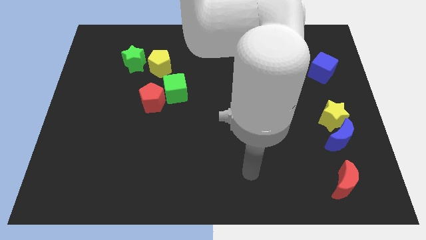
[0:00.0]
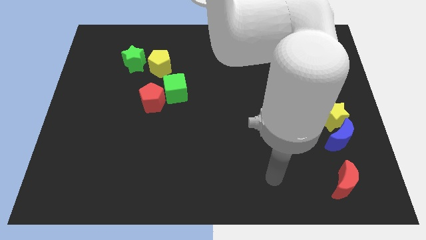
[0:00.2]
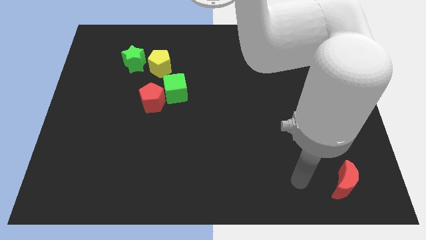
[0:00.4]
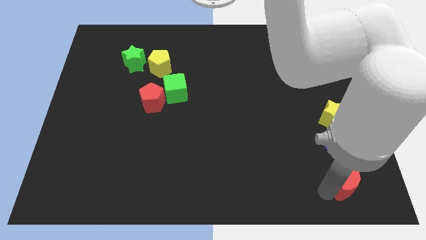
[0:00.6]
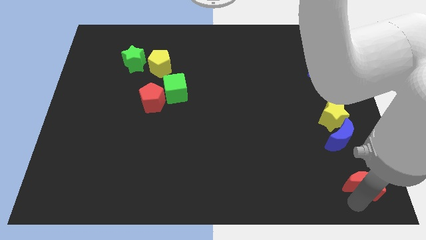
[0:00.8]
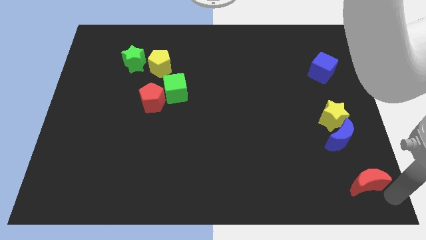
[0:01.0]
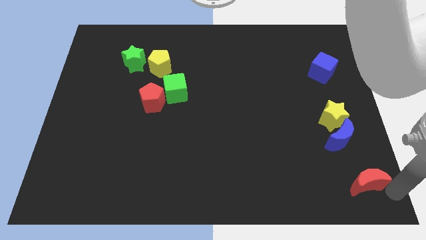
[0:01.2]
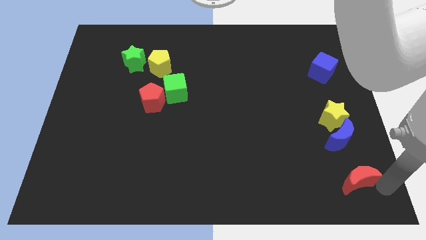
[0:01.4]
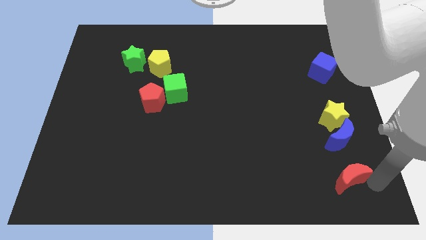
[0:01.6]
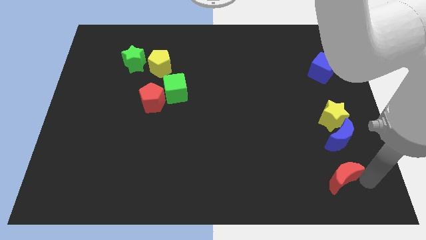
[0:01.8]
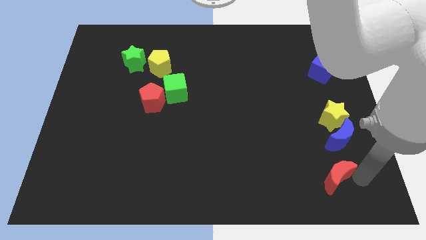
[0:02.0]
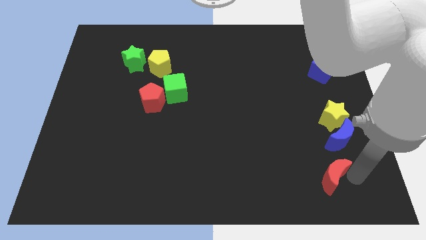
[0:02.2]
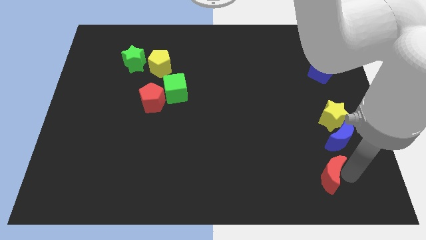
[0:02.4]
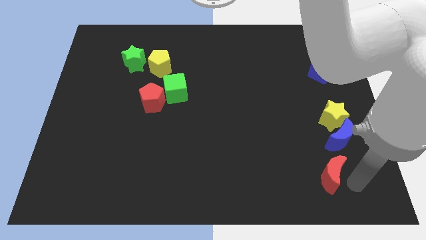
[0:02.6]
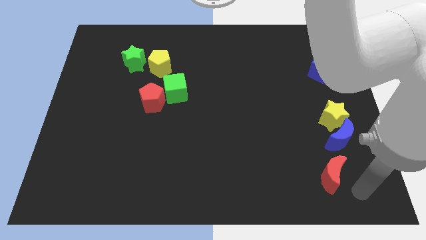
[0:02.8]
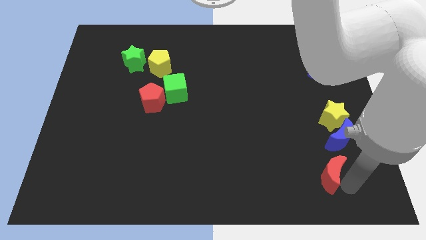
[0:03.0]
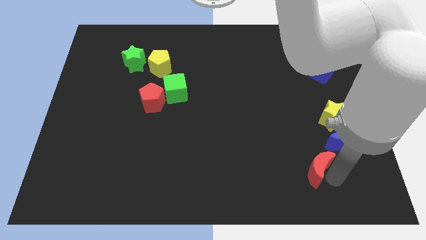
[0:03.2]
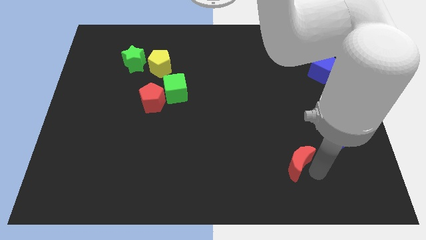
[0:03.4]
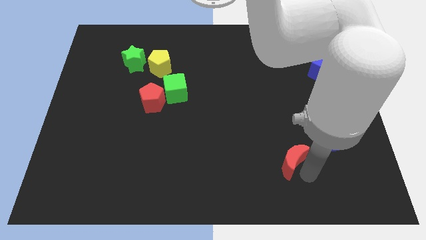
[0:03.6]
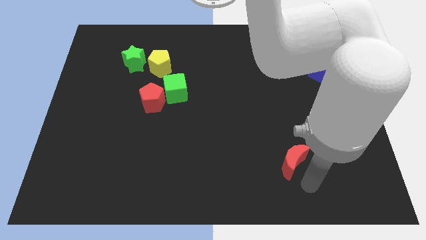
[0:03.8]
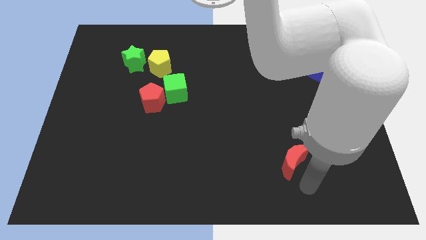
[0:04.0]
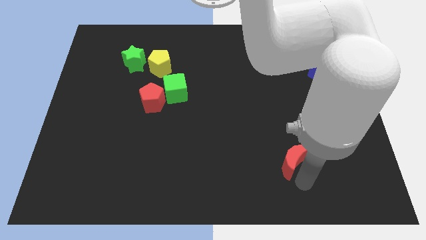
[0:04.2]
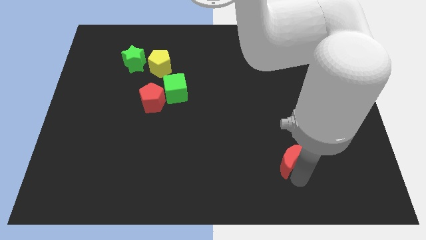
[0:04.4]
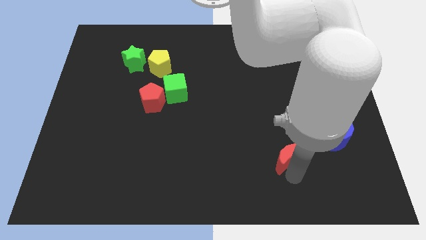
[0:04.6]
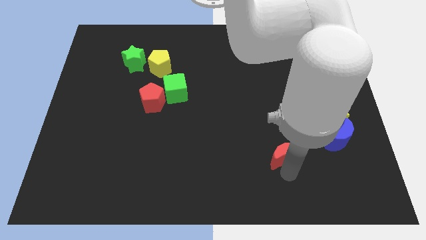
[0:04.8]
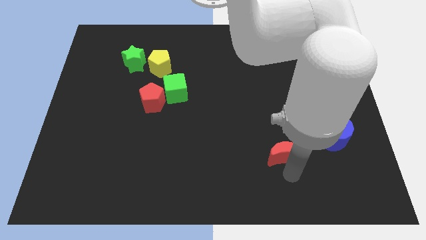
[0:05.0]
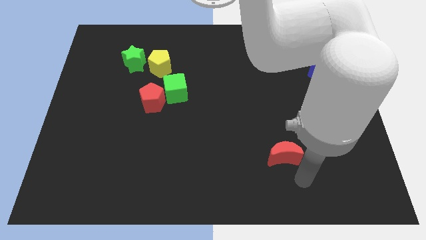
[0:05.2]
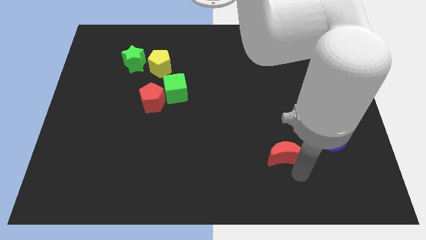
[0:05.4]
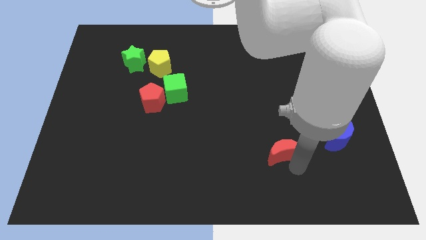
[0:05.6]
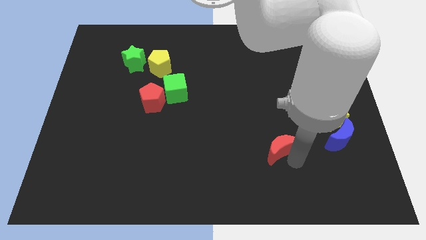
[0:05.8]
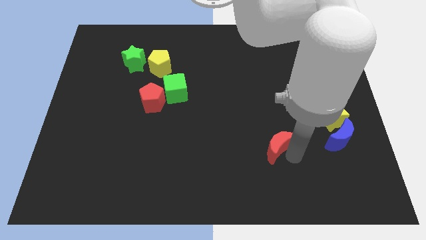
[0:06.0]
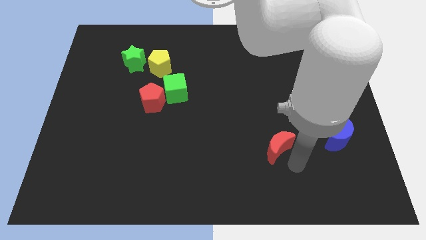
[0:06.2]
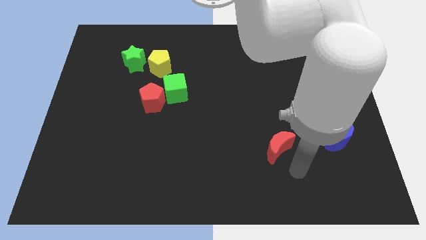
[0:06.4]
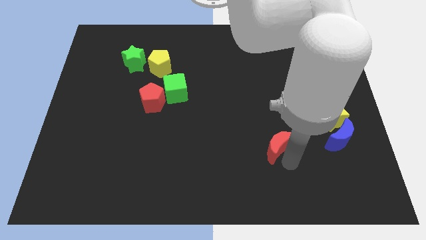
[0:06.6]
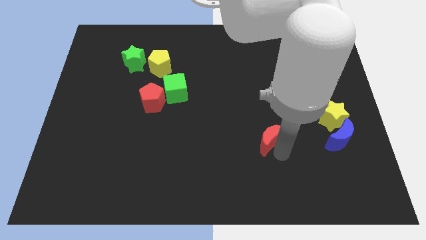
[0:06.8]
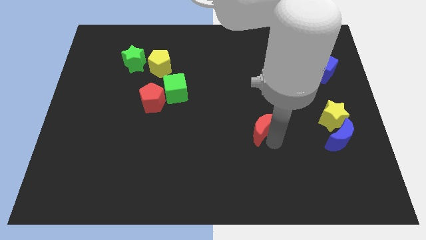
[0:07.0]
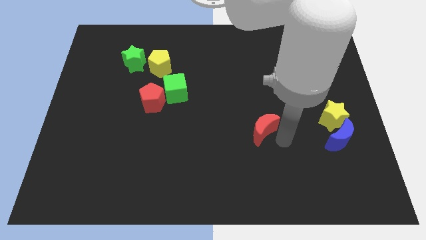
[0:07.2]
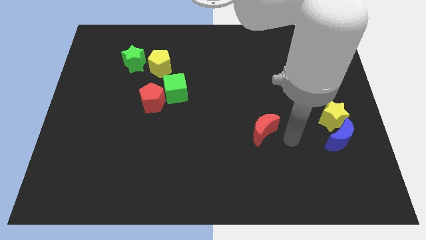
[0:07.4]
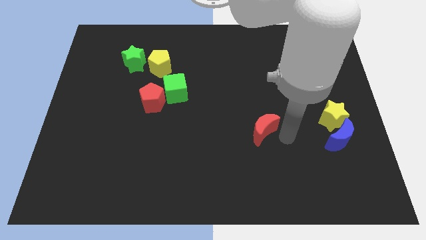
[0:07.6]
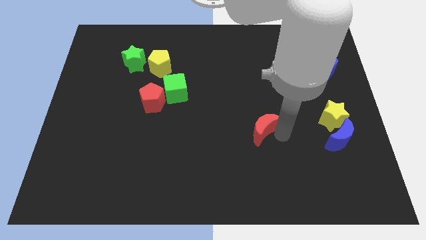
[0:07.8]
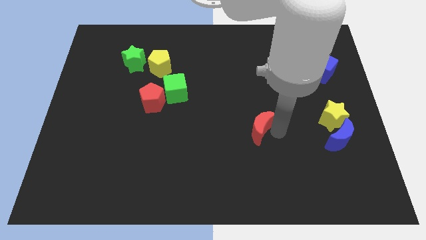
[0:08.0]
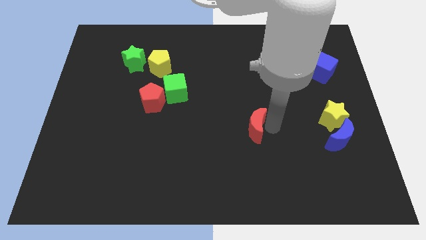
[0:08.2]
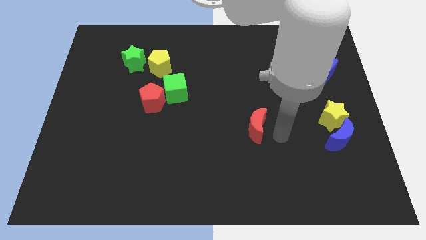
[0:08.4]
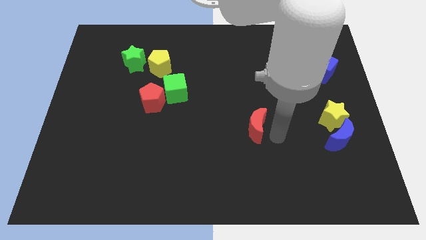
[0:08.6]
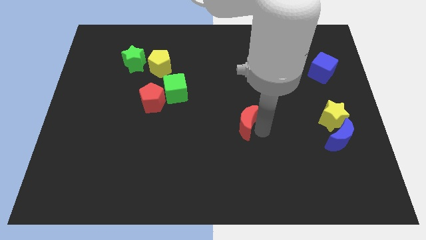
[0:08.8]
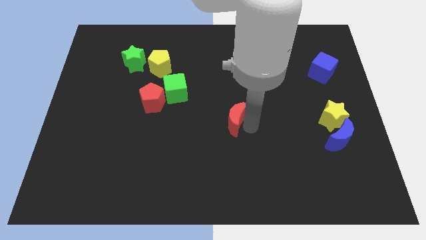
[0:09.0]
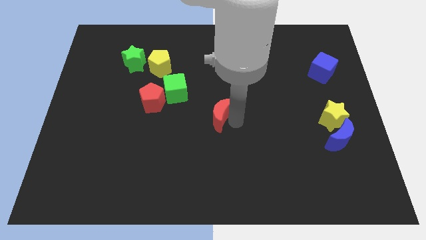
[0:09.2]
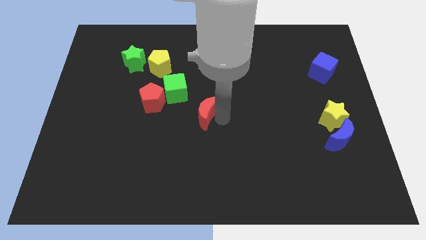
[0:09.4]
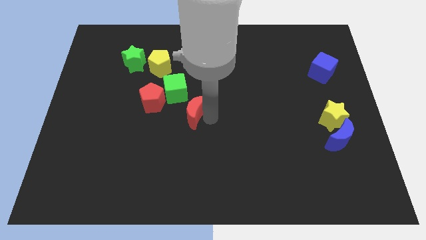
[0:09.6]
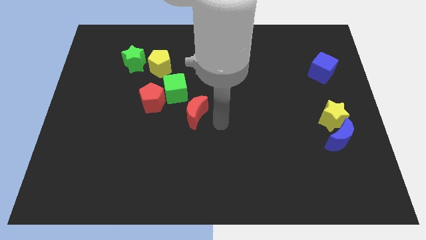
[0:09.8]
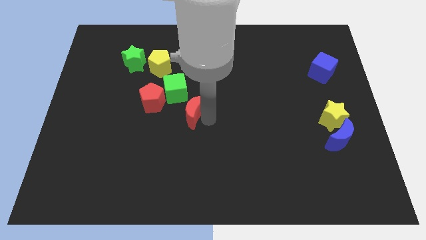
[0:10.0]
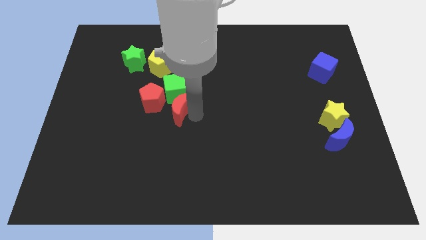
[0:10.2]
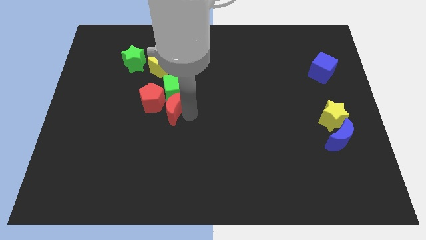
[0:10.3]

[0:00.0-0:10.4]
push the red moon towards the red pentagon

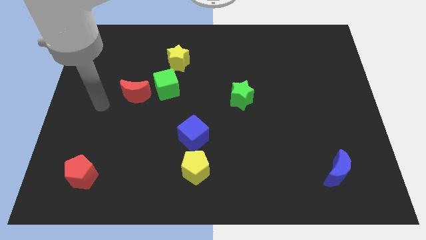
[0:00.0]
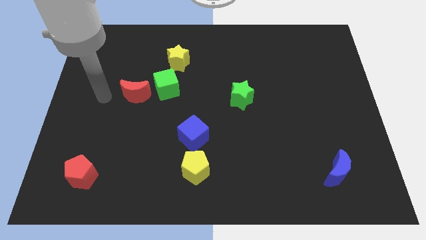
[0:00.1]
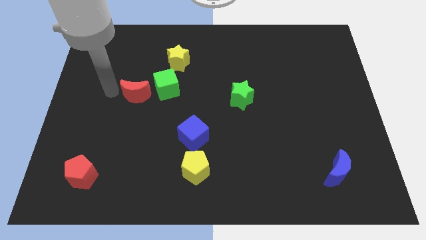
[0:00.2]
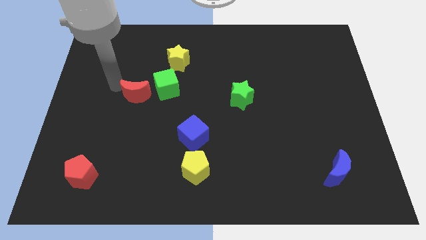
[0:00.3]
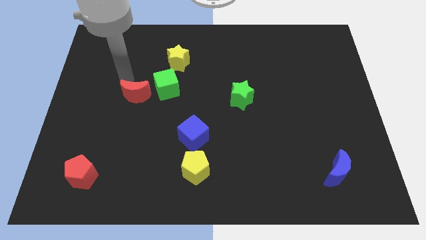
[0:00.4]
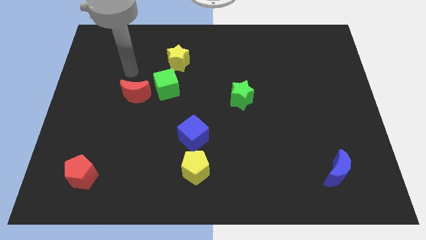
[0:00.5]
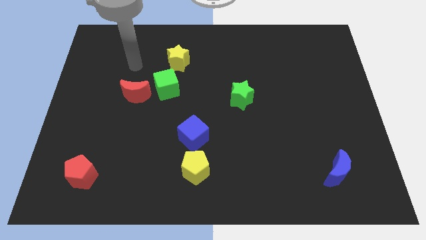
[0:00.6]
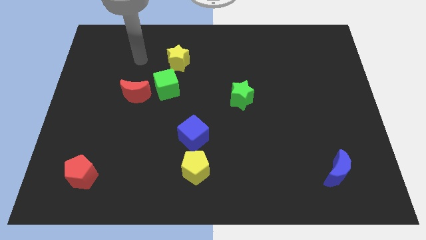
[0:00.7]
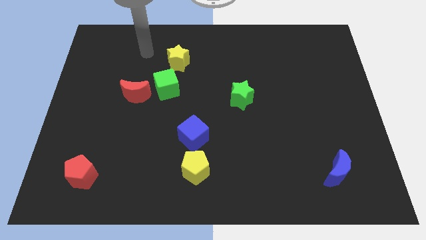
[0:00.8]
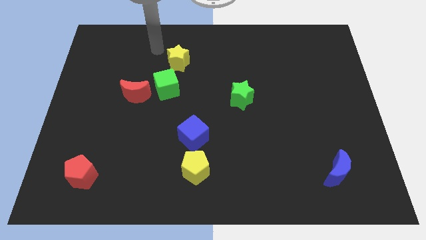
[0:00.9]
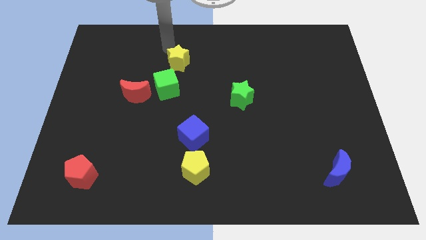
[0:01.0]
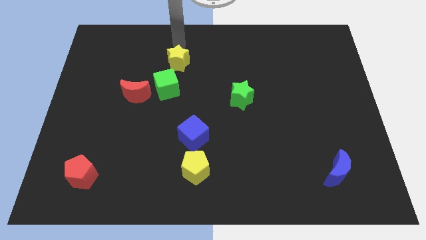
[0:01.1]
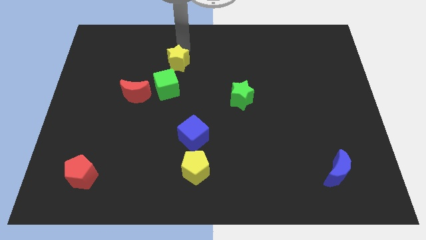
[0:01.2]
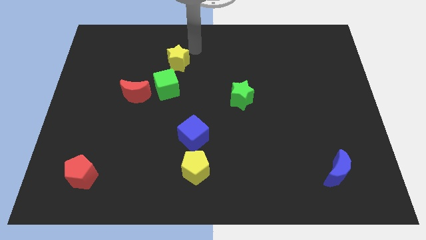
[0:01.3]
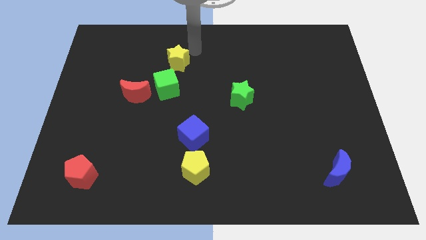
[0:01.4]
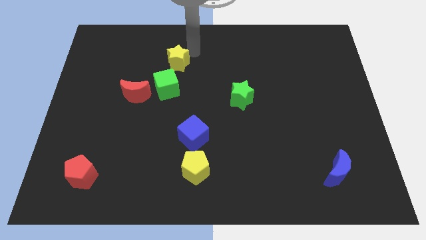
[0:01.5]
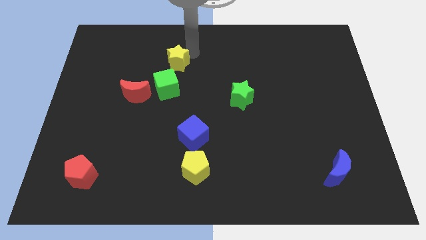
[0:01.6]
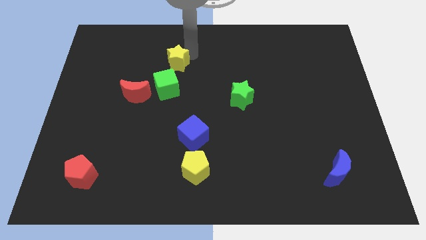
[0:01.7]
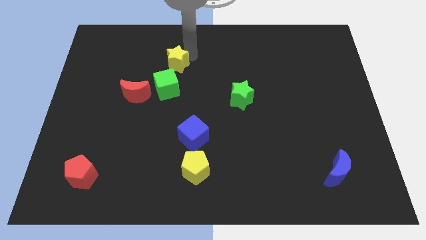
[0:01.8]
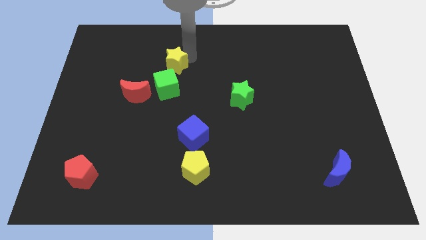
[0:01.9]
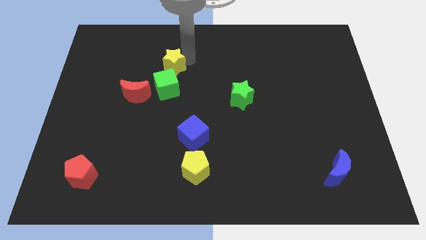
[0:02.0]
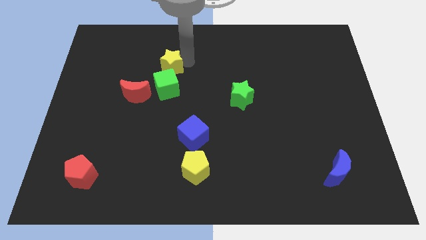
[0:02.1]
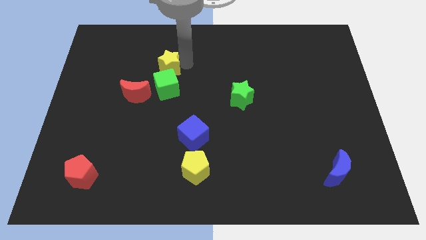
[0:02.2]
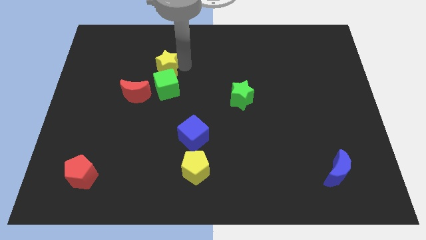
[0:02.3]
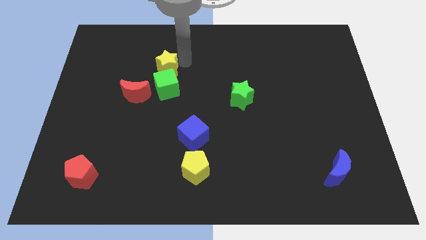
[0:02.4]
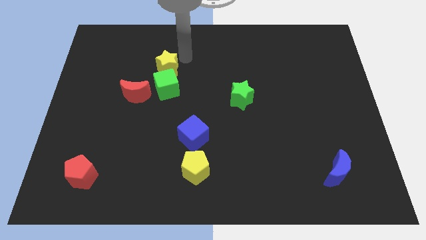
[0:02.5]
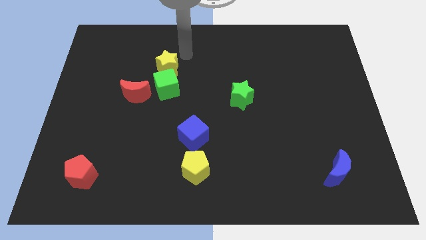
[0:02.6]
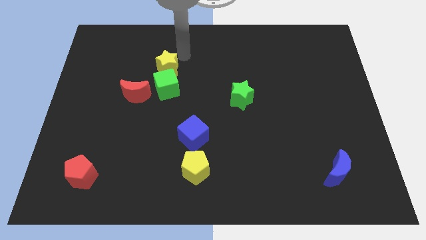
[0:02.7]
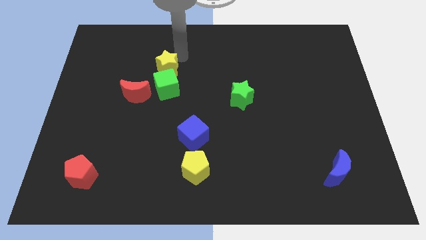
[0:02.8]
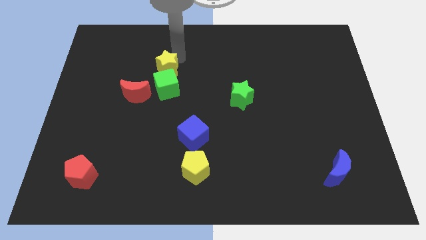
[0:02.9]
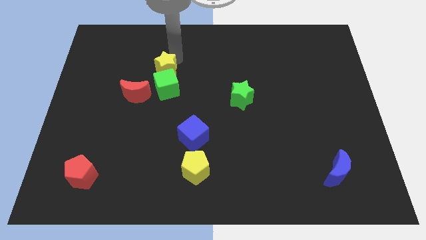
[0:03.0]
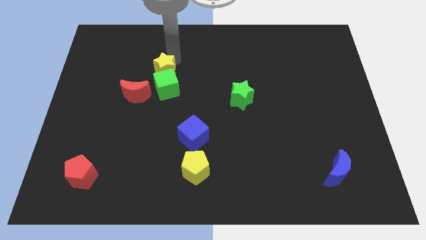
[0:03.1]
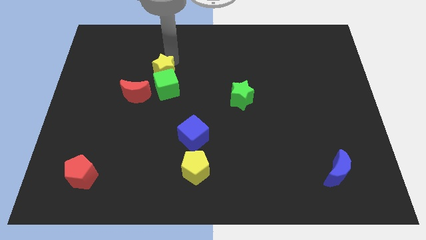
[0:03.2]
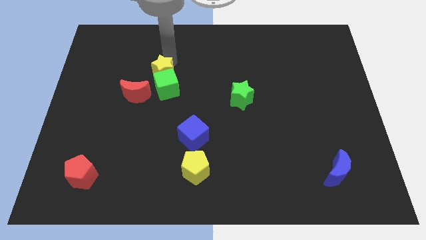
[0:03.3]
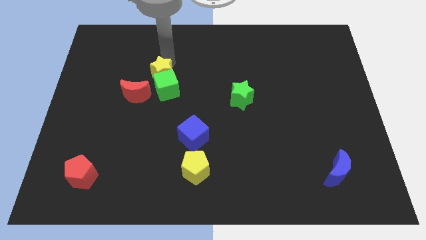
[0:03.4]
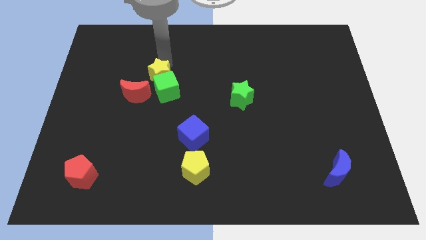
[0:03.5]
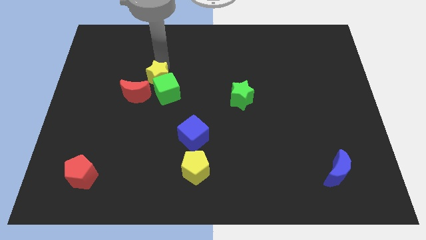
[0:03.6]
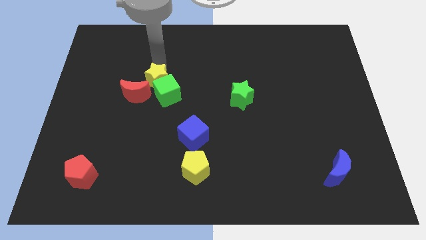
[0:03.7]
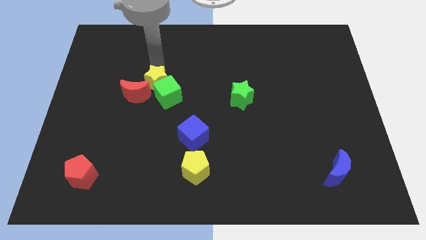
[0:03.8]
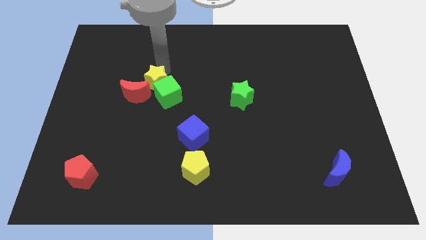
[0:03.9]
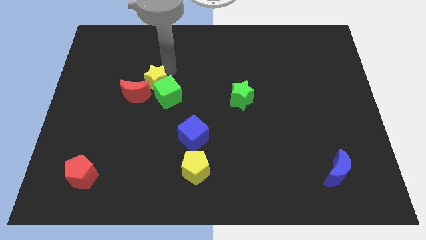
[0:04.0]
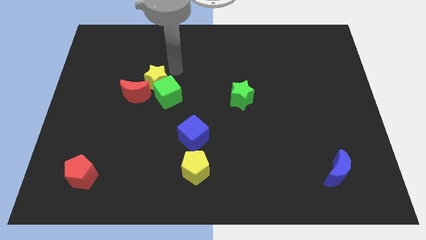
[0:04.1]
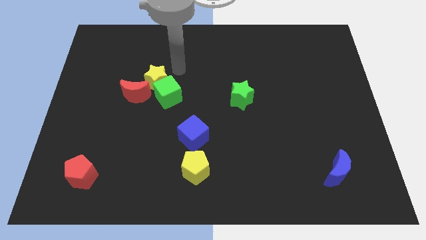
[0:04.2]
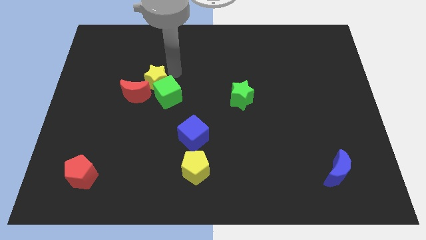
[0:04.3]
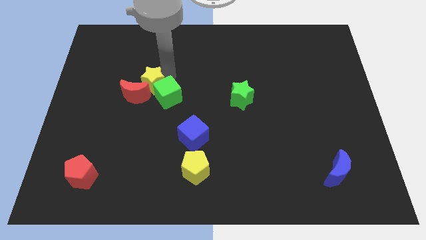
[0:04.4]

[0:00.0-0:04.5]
move the yellow star next to the red moon
